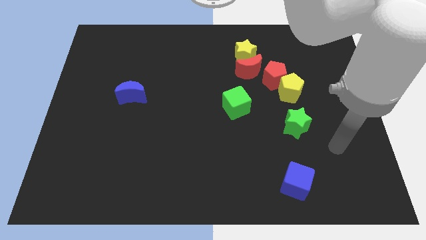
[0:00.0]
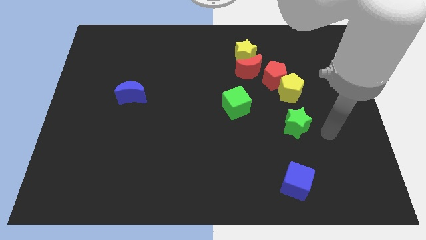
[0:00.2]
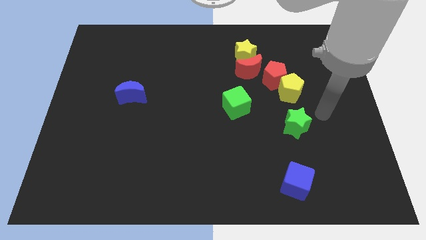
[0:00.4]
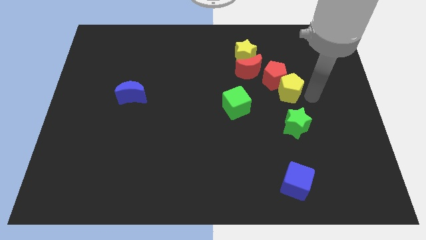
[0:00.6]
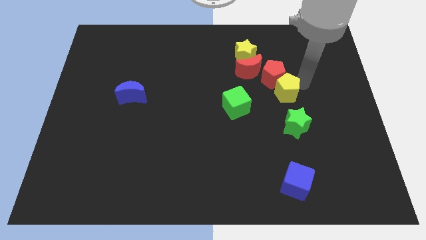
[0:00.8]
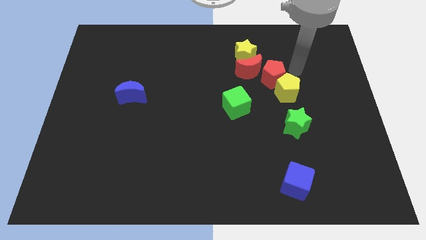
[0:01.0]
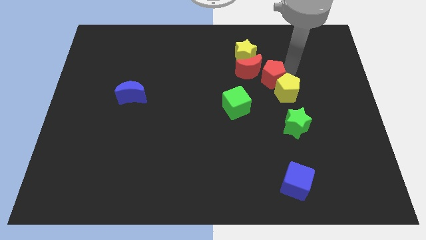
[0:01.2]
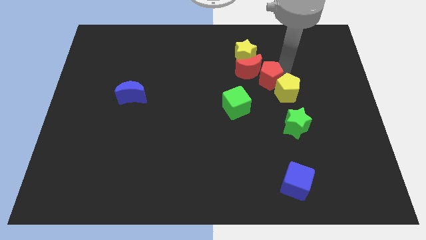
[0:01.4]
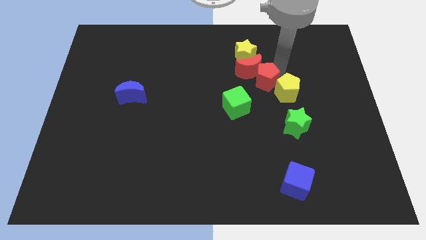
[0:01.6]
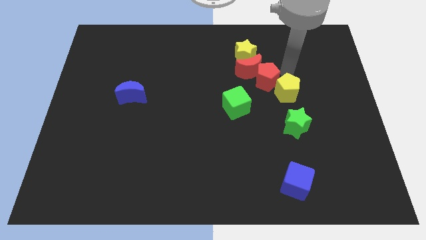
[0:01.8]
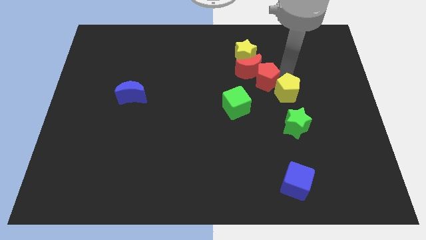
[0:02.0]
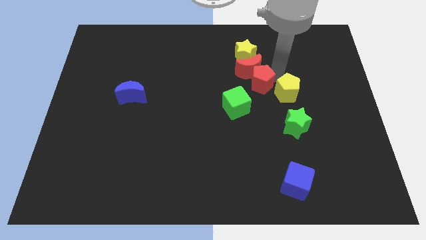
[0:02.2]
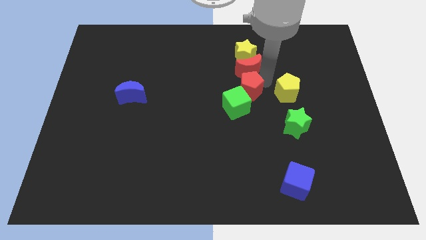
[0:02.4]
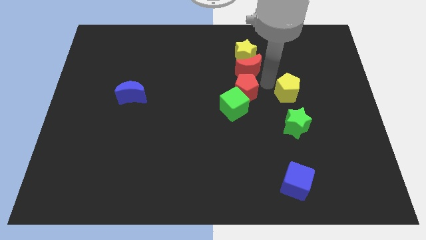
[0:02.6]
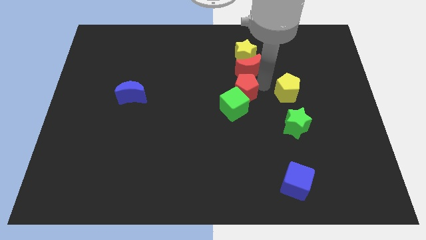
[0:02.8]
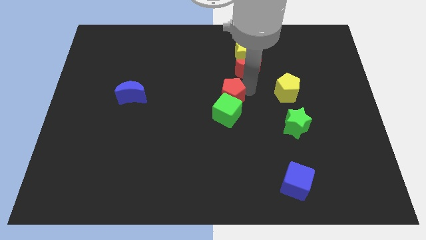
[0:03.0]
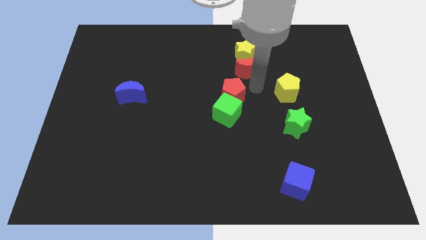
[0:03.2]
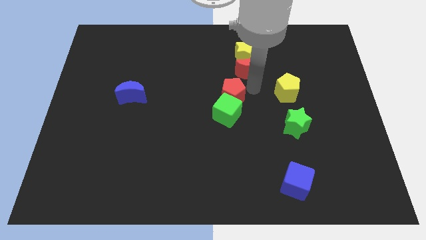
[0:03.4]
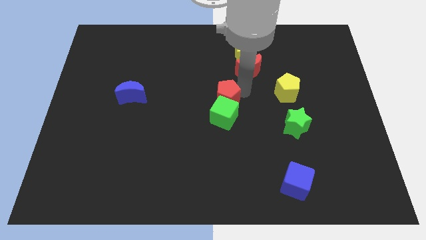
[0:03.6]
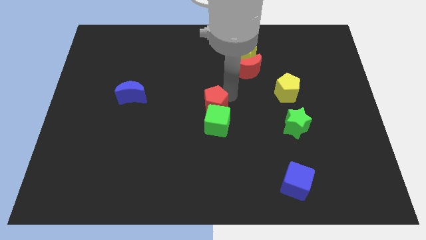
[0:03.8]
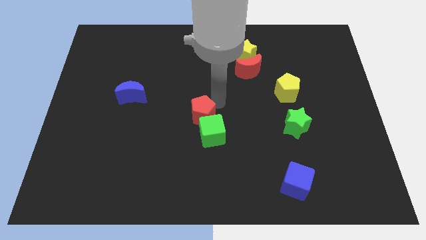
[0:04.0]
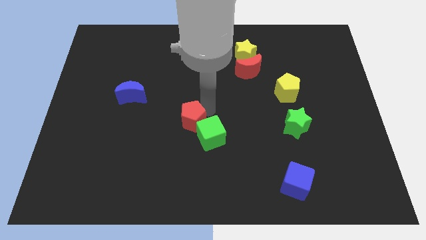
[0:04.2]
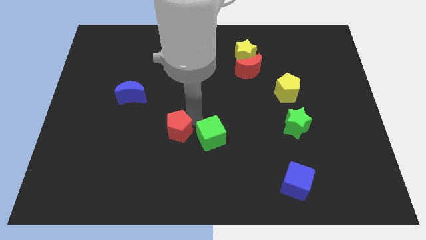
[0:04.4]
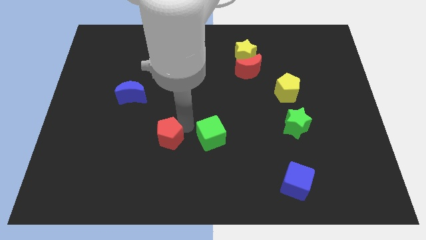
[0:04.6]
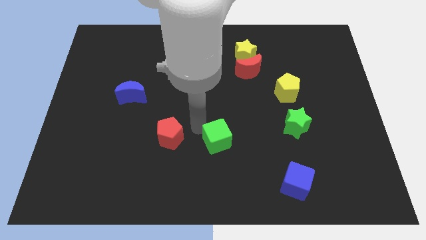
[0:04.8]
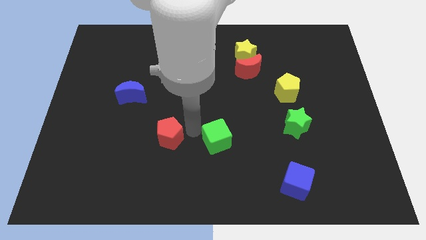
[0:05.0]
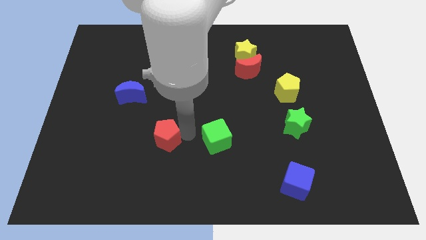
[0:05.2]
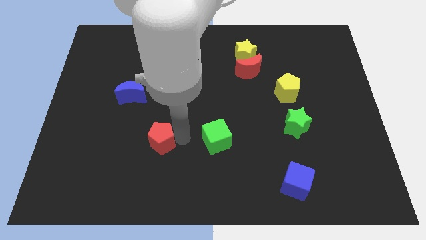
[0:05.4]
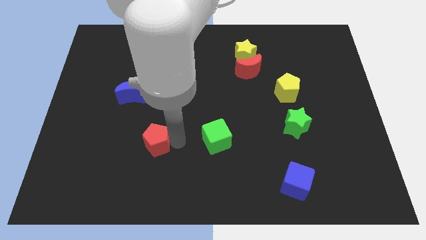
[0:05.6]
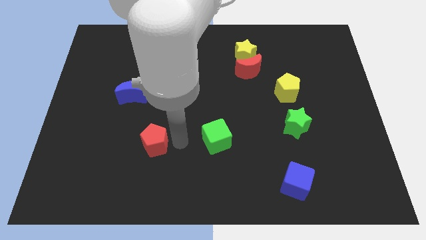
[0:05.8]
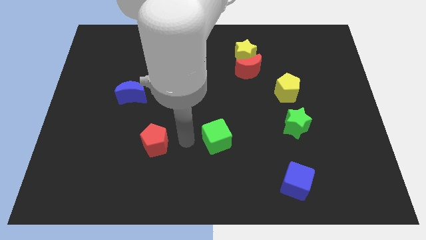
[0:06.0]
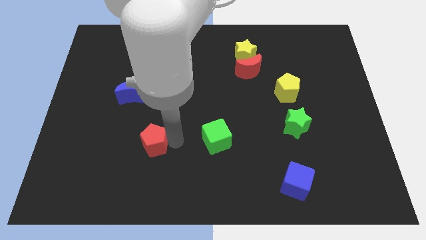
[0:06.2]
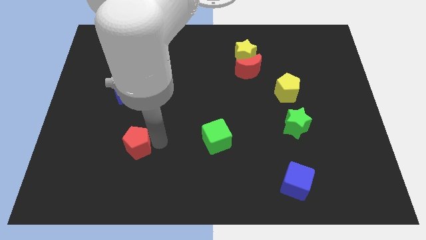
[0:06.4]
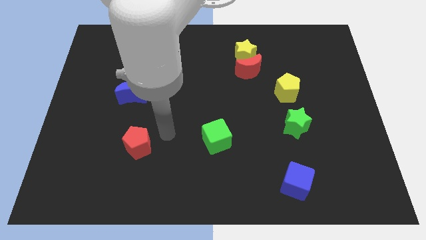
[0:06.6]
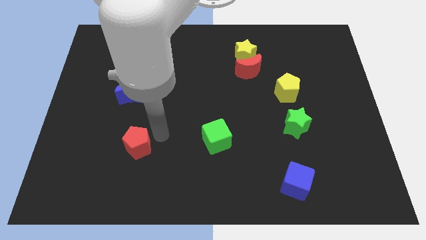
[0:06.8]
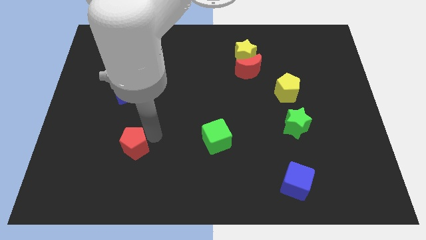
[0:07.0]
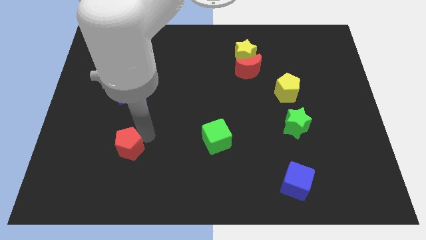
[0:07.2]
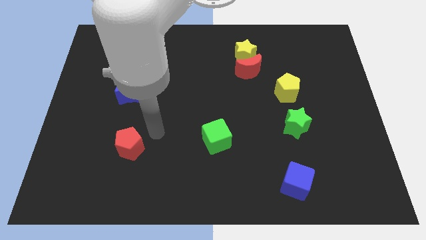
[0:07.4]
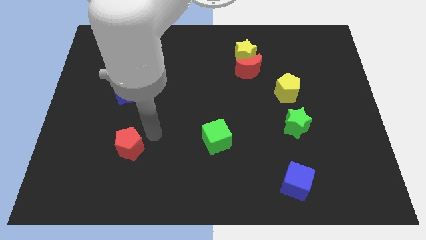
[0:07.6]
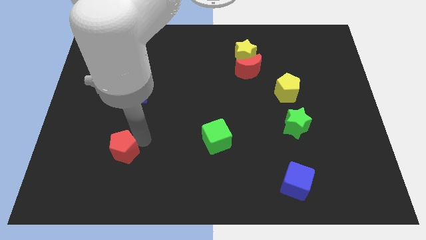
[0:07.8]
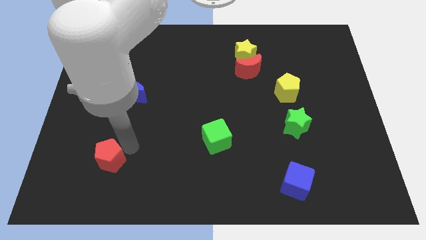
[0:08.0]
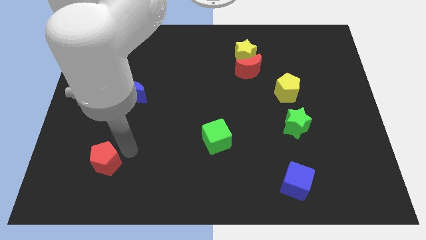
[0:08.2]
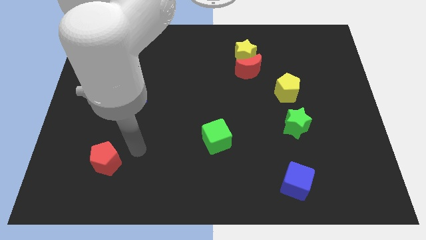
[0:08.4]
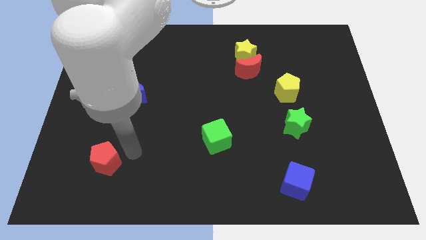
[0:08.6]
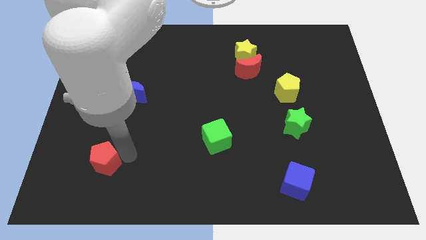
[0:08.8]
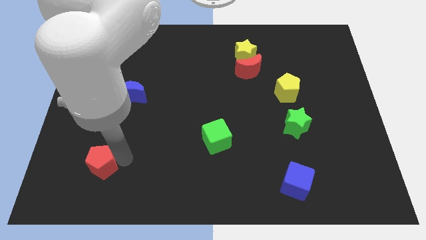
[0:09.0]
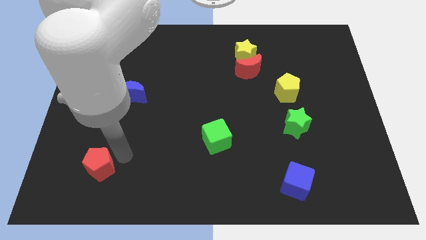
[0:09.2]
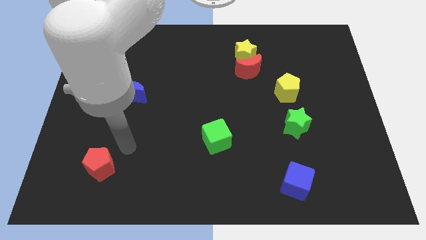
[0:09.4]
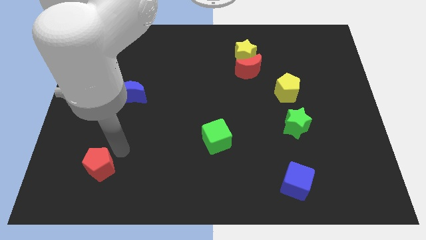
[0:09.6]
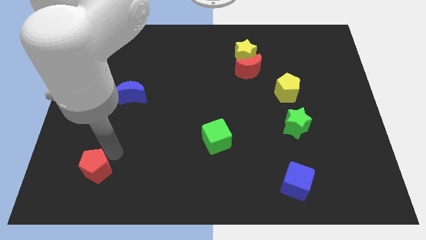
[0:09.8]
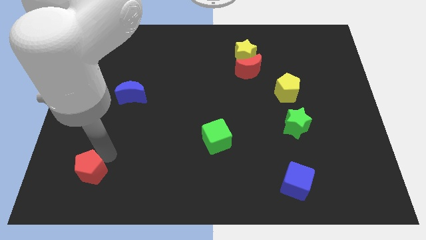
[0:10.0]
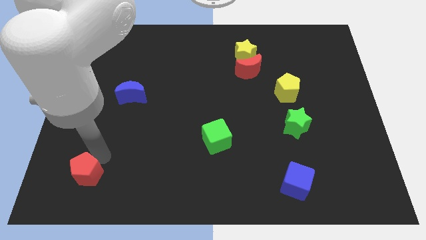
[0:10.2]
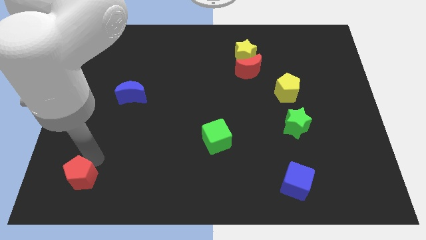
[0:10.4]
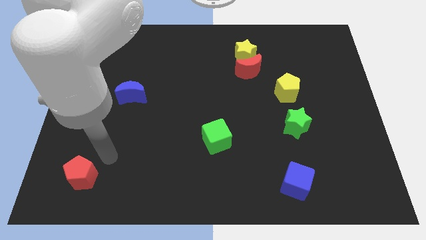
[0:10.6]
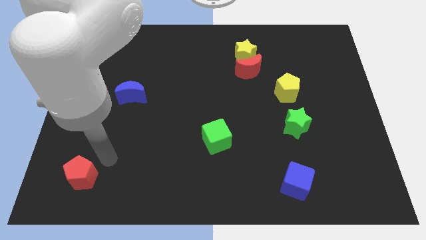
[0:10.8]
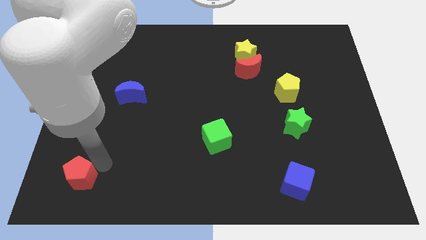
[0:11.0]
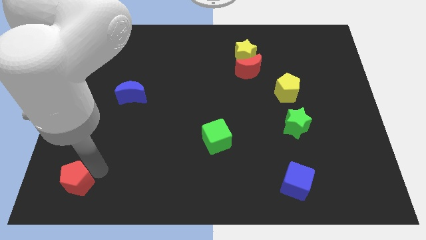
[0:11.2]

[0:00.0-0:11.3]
move the red pentagon to the bottom left of the board
